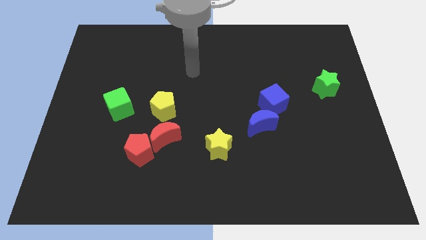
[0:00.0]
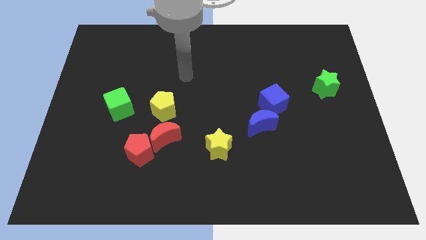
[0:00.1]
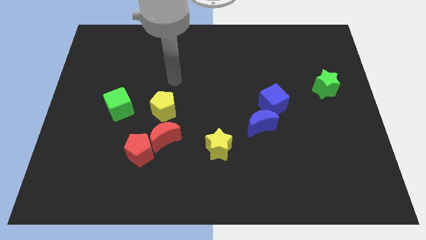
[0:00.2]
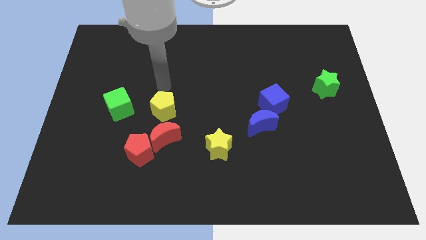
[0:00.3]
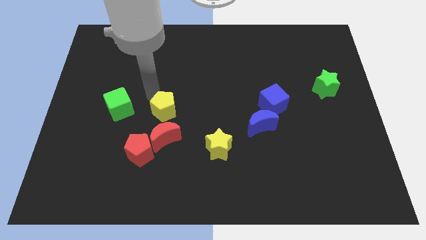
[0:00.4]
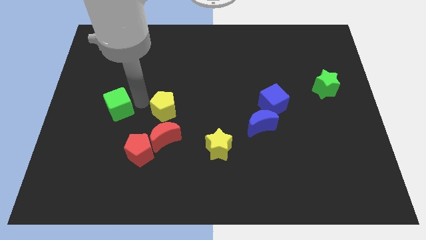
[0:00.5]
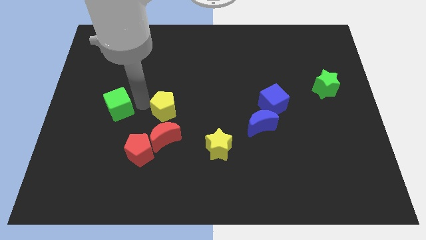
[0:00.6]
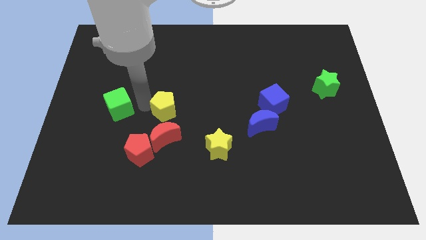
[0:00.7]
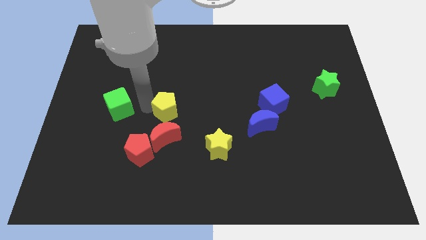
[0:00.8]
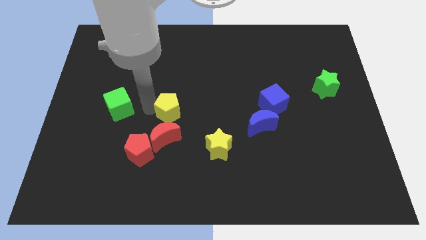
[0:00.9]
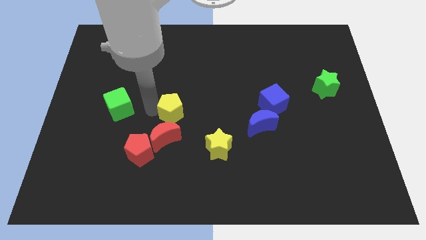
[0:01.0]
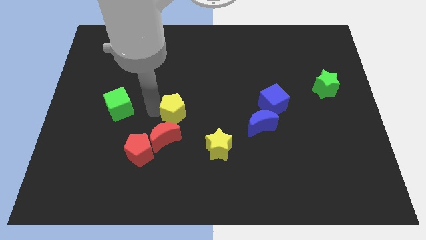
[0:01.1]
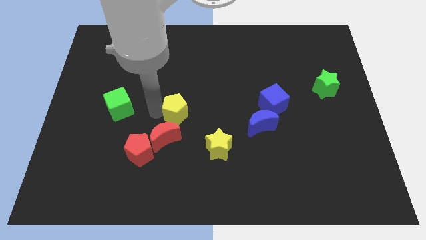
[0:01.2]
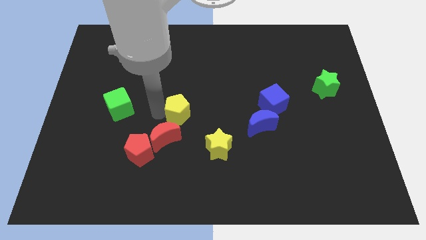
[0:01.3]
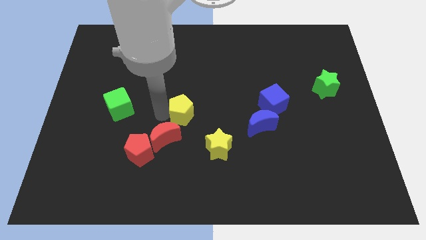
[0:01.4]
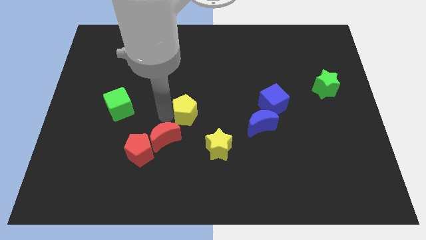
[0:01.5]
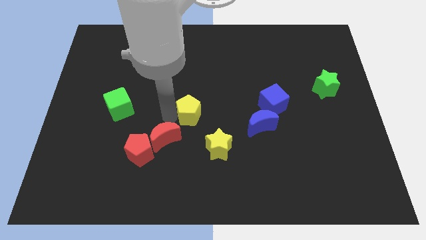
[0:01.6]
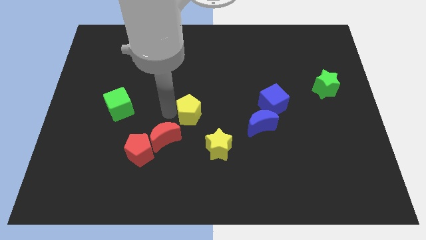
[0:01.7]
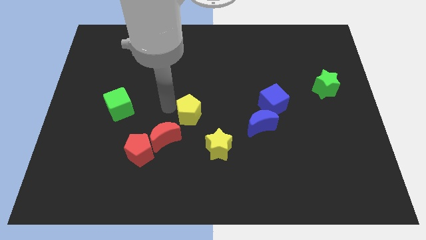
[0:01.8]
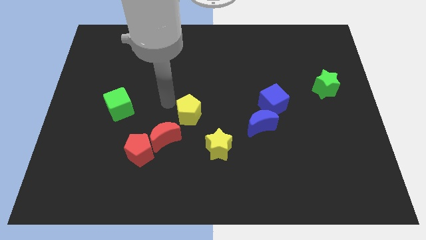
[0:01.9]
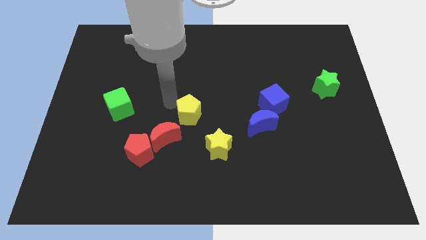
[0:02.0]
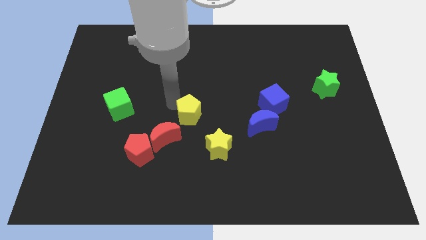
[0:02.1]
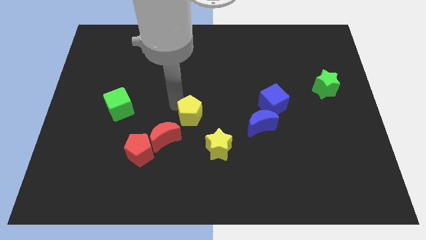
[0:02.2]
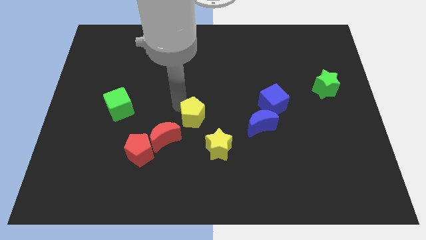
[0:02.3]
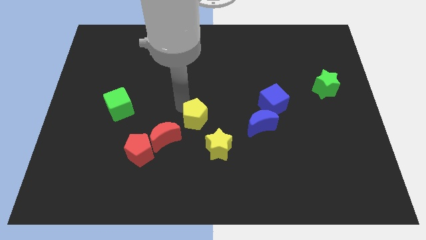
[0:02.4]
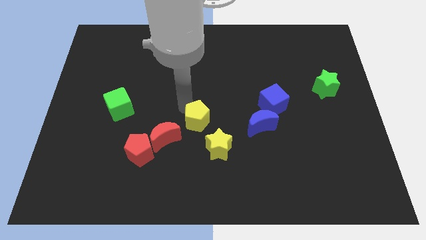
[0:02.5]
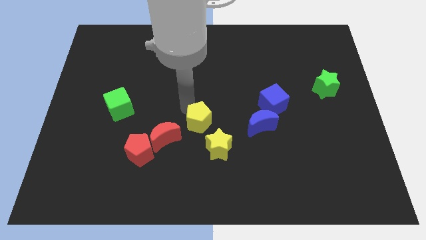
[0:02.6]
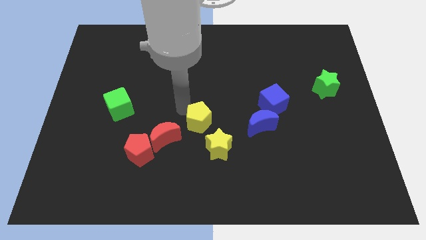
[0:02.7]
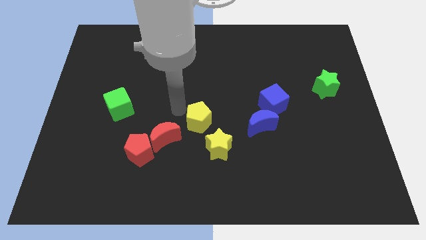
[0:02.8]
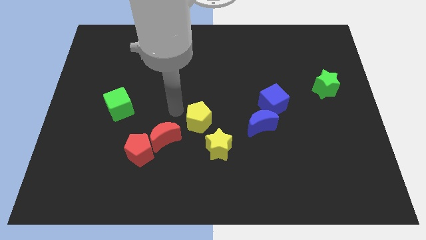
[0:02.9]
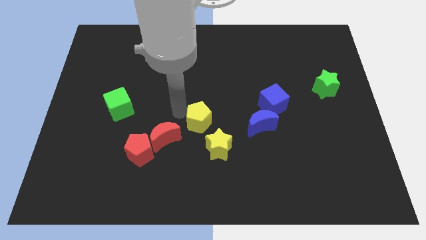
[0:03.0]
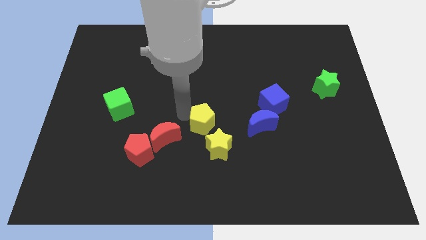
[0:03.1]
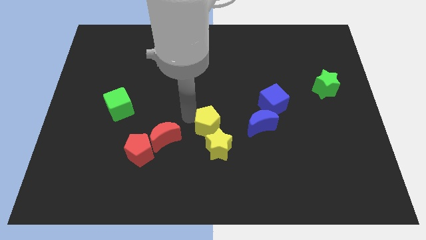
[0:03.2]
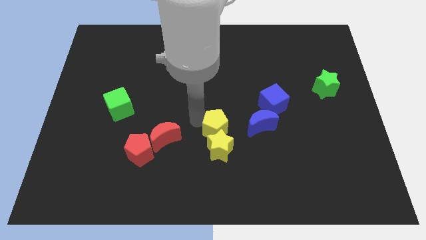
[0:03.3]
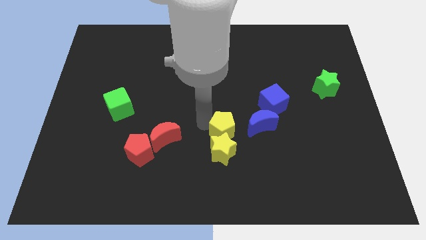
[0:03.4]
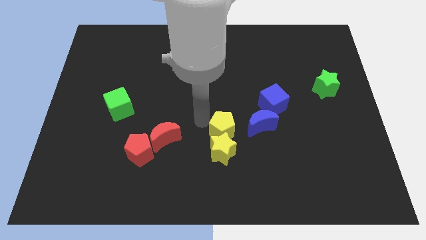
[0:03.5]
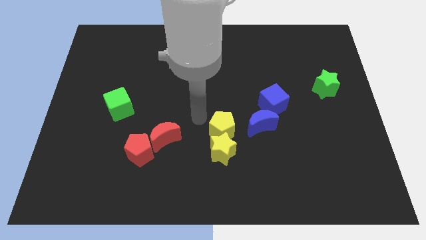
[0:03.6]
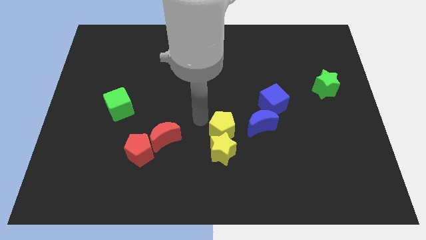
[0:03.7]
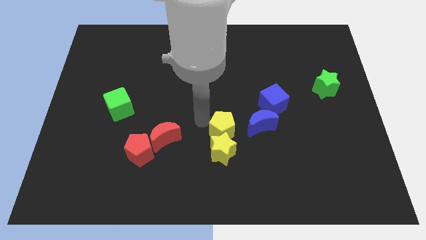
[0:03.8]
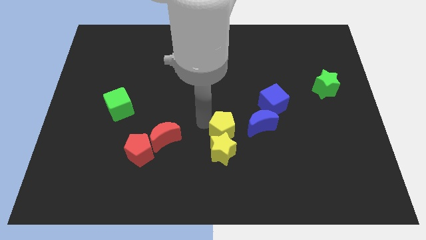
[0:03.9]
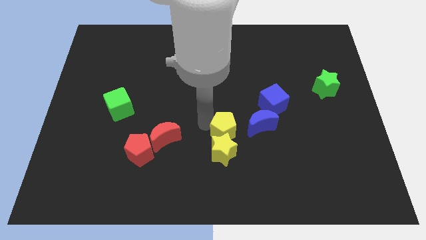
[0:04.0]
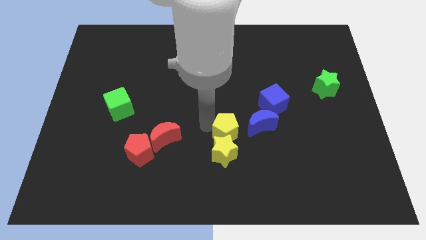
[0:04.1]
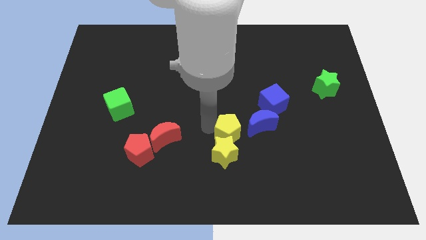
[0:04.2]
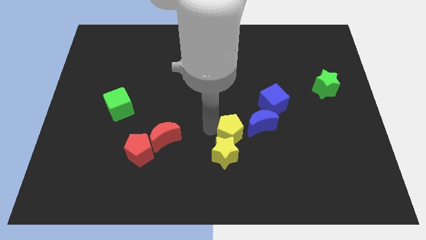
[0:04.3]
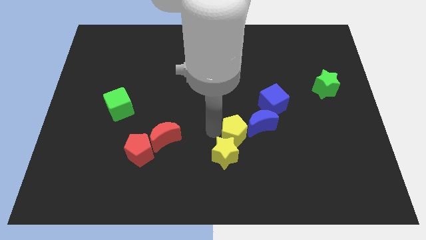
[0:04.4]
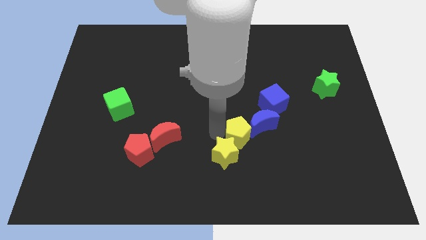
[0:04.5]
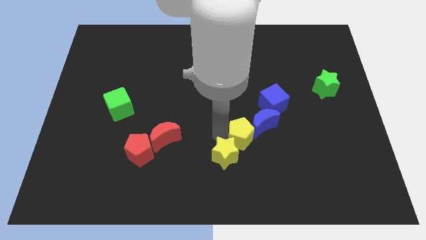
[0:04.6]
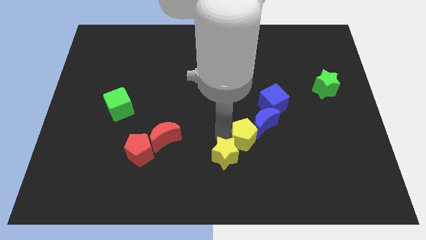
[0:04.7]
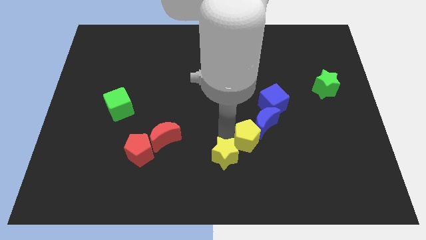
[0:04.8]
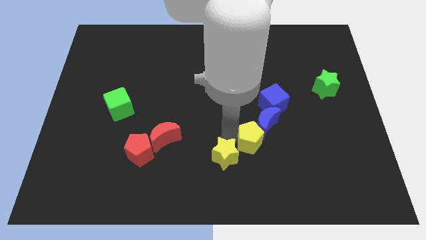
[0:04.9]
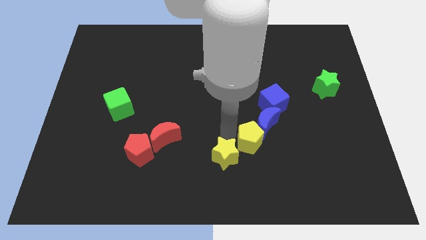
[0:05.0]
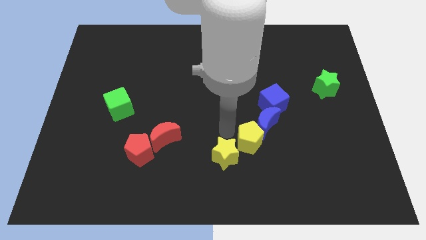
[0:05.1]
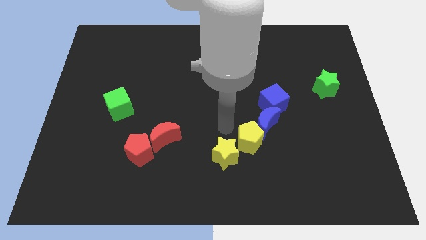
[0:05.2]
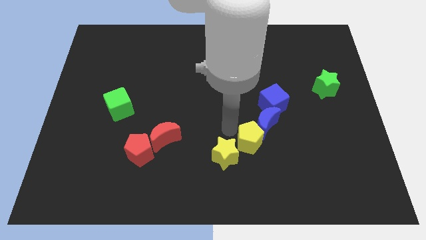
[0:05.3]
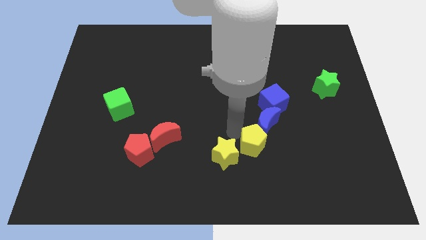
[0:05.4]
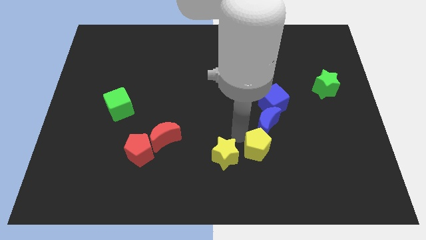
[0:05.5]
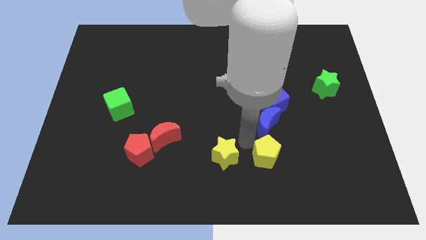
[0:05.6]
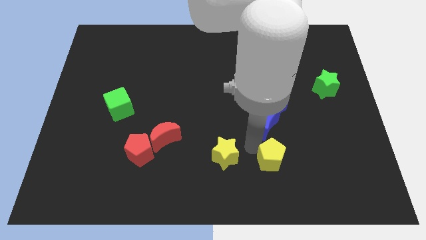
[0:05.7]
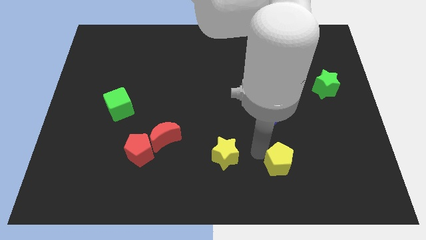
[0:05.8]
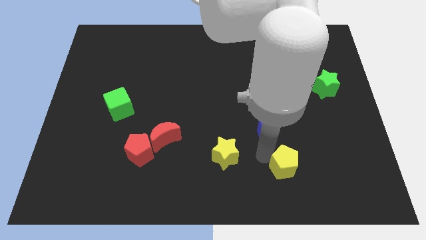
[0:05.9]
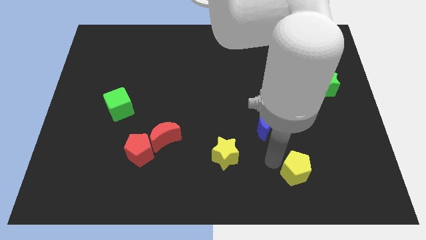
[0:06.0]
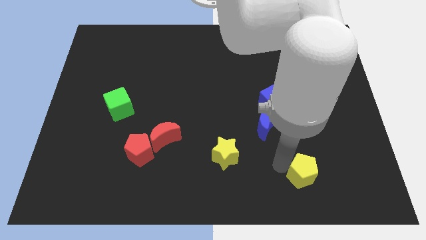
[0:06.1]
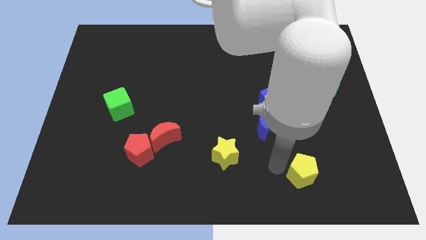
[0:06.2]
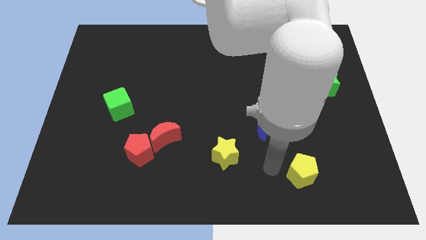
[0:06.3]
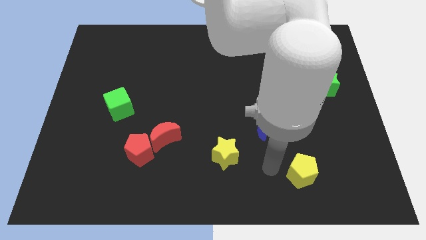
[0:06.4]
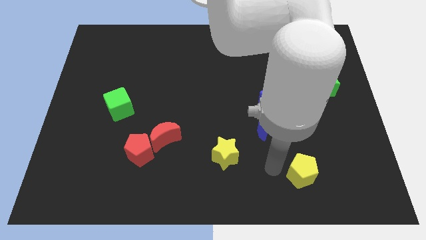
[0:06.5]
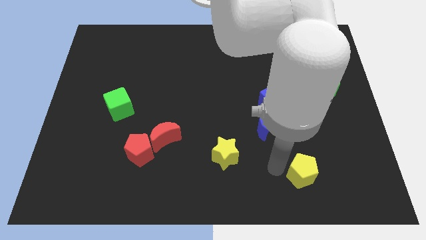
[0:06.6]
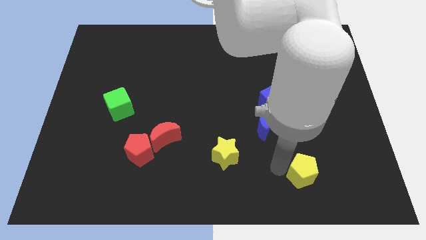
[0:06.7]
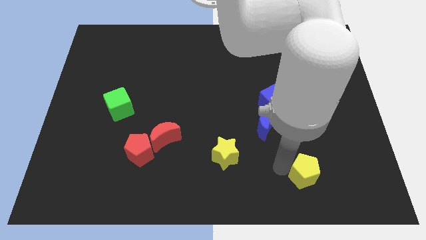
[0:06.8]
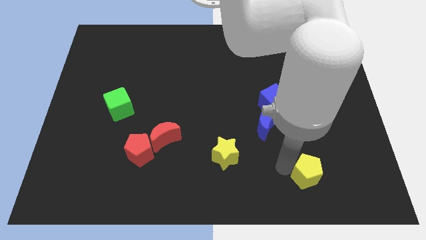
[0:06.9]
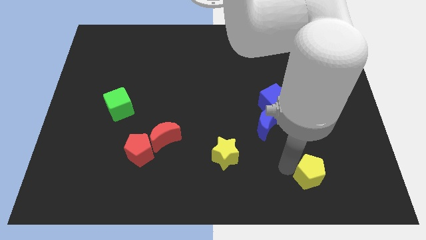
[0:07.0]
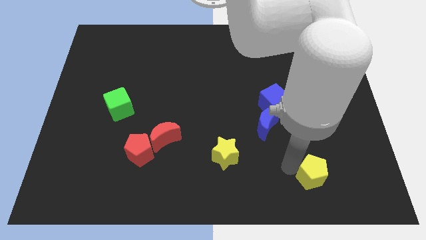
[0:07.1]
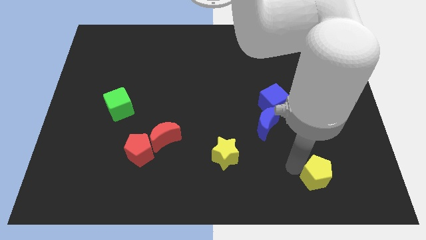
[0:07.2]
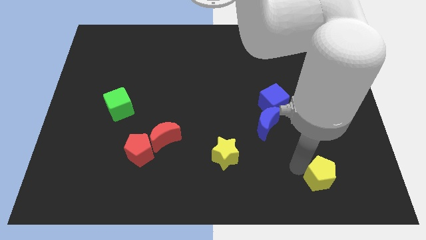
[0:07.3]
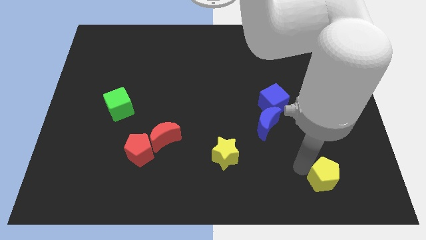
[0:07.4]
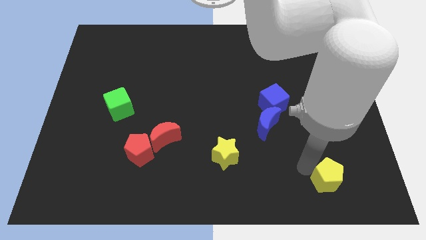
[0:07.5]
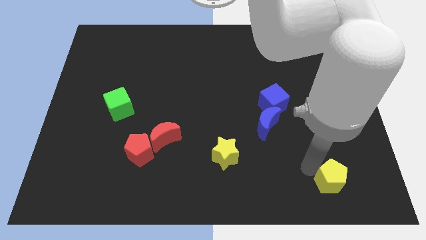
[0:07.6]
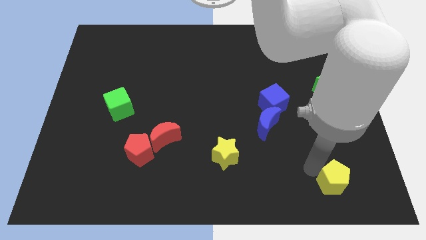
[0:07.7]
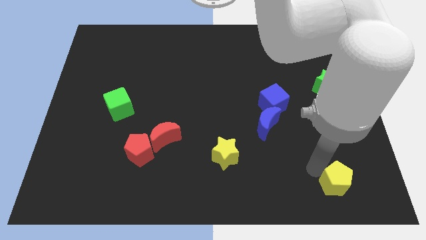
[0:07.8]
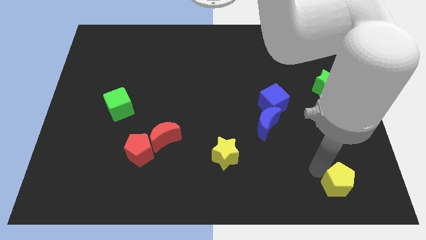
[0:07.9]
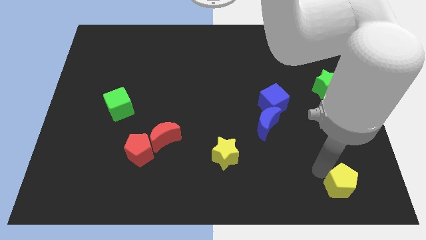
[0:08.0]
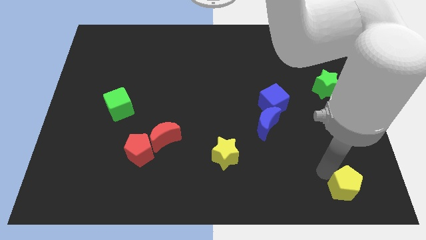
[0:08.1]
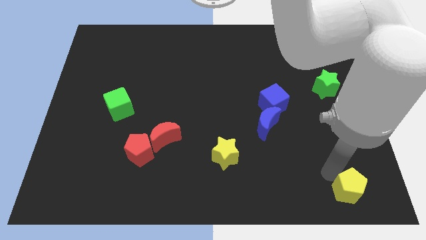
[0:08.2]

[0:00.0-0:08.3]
push the yellow pentagon to the bottom right
